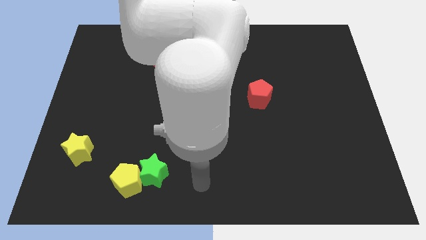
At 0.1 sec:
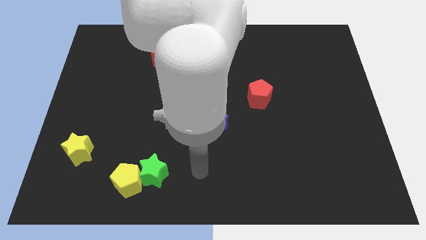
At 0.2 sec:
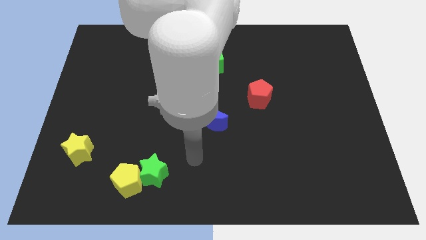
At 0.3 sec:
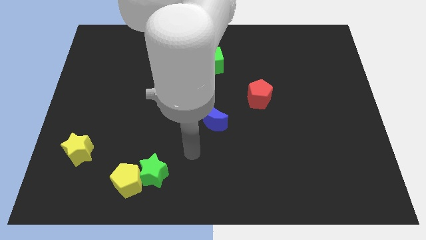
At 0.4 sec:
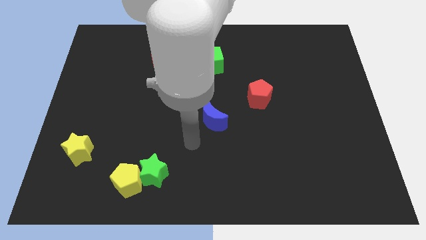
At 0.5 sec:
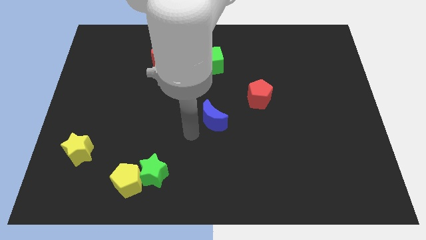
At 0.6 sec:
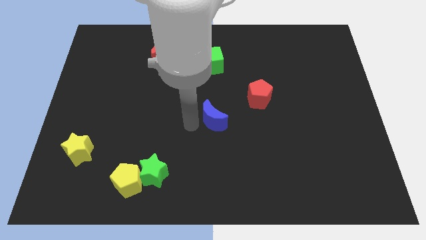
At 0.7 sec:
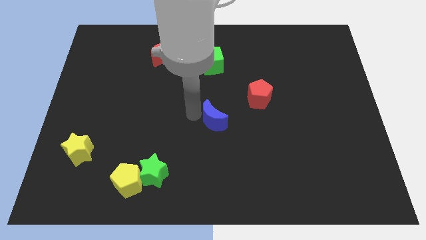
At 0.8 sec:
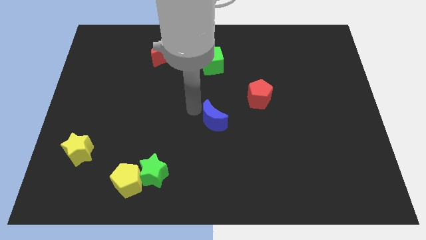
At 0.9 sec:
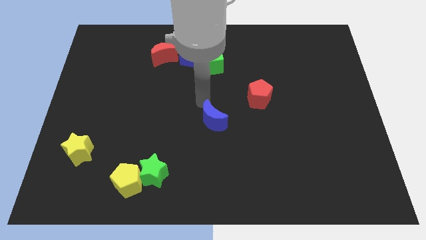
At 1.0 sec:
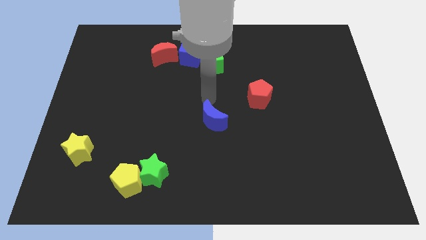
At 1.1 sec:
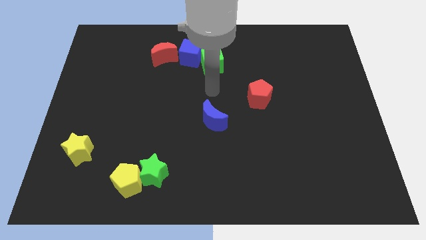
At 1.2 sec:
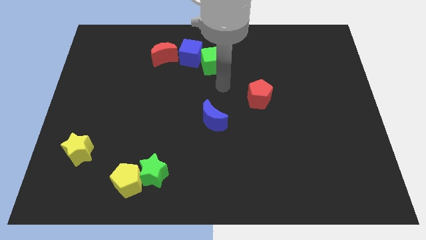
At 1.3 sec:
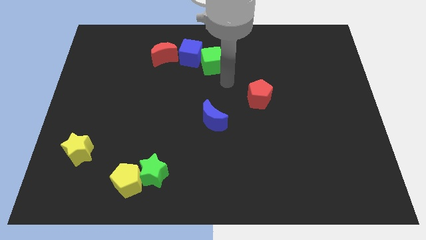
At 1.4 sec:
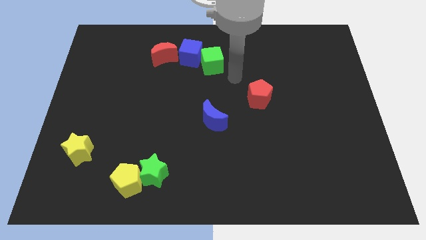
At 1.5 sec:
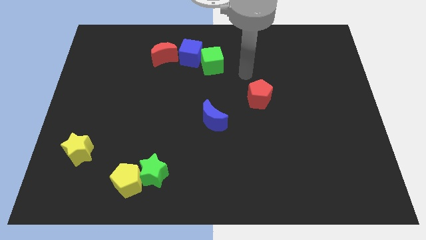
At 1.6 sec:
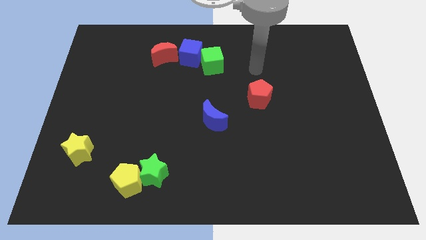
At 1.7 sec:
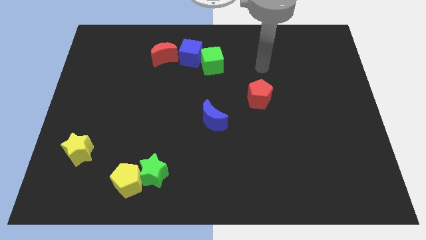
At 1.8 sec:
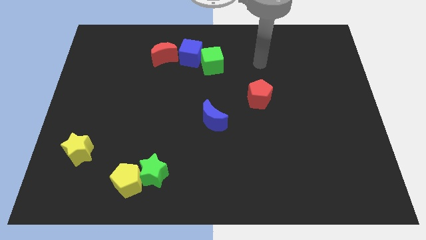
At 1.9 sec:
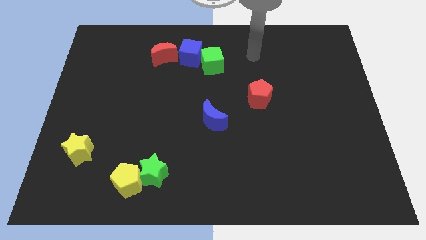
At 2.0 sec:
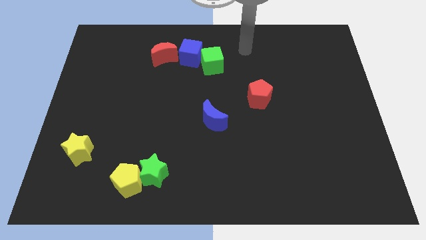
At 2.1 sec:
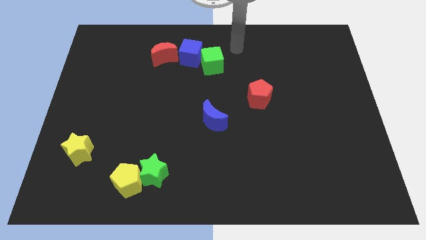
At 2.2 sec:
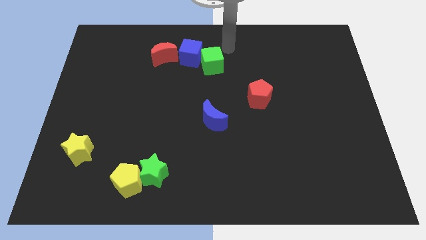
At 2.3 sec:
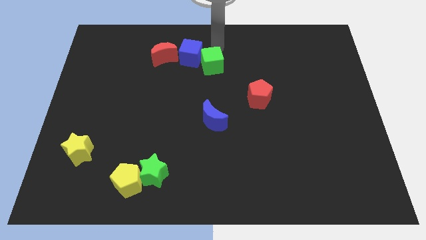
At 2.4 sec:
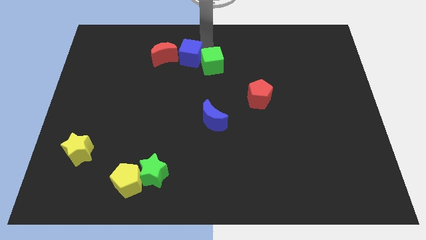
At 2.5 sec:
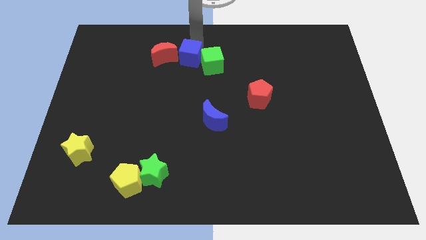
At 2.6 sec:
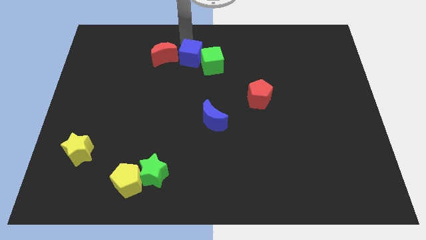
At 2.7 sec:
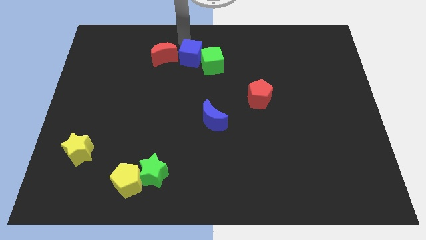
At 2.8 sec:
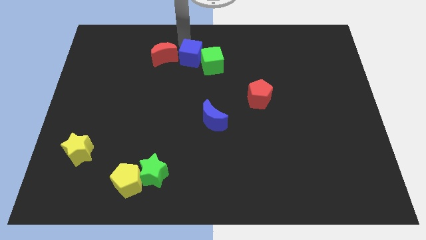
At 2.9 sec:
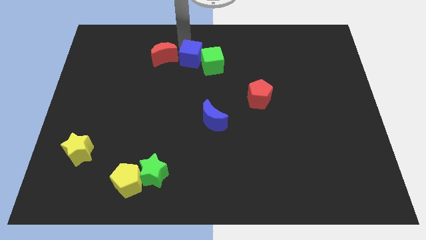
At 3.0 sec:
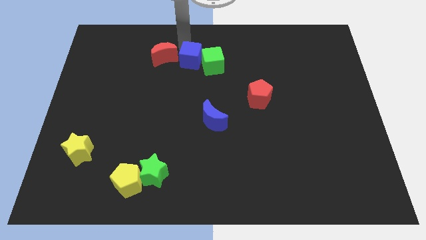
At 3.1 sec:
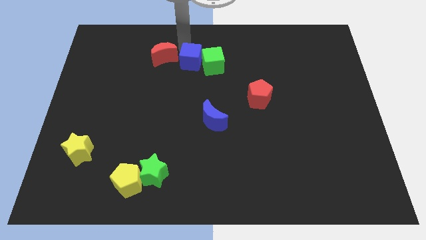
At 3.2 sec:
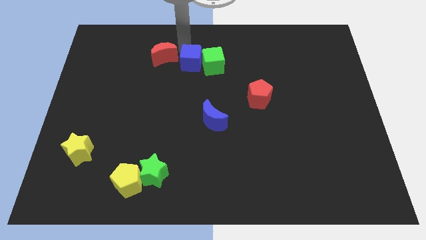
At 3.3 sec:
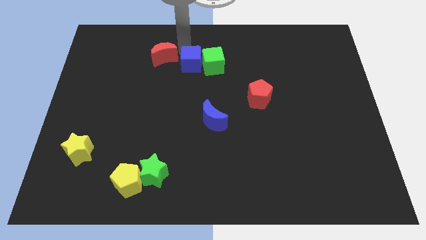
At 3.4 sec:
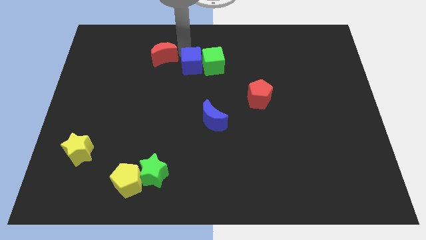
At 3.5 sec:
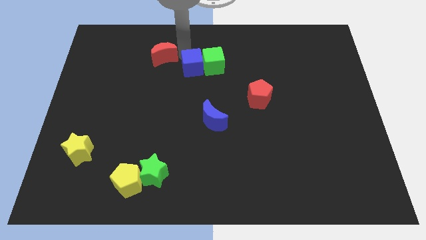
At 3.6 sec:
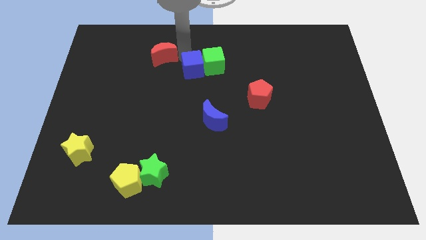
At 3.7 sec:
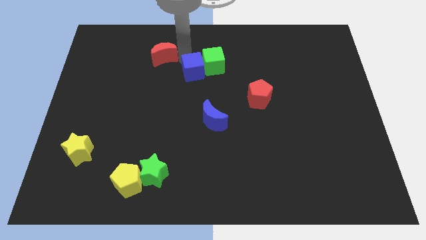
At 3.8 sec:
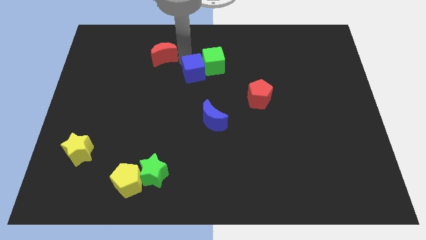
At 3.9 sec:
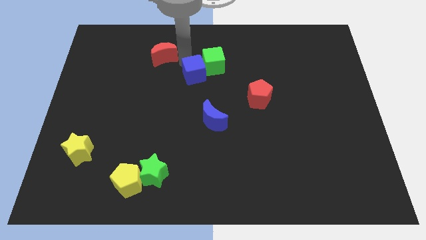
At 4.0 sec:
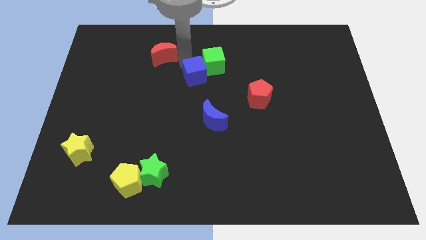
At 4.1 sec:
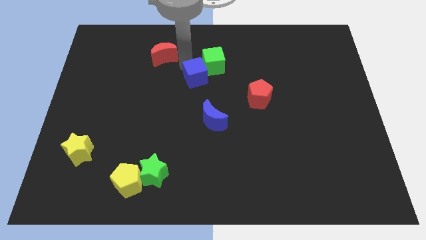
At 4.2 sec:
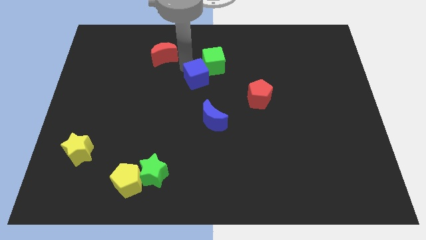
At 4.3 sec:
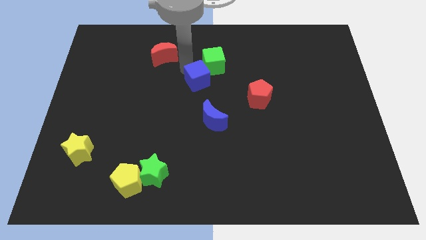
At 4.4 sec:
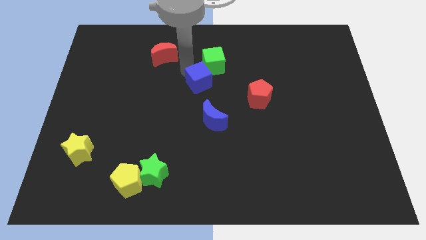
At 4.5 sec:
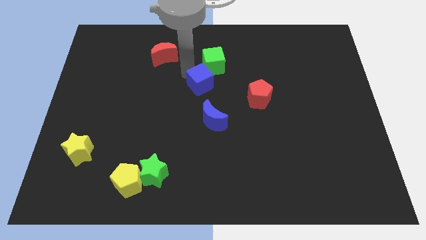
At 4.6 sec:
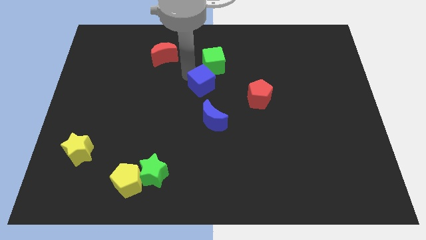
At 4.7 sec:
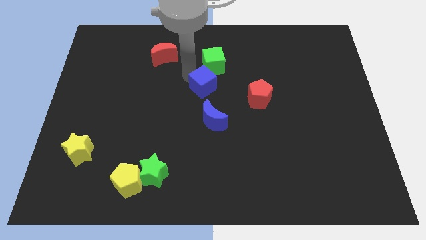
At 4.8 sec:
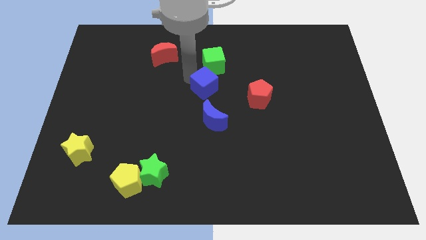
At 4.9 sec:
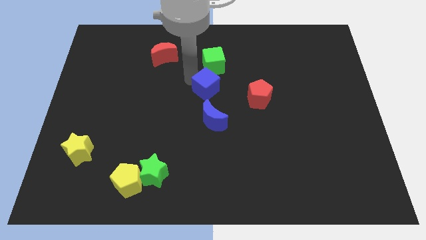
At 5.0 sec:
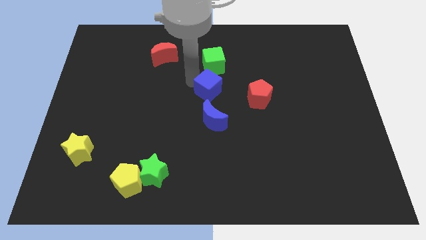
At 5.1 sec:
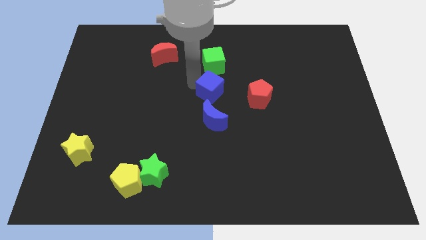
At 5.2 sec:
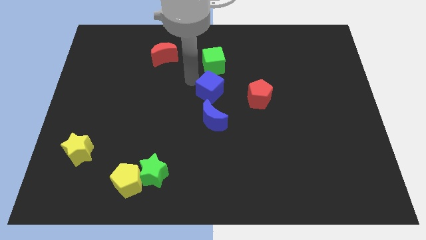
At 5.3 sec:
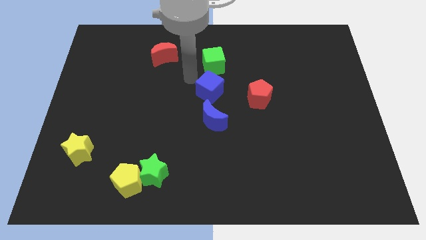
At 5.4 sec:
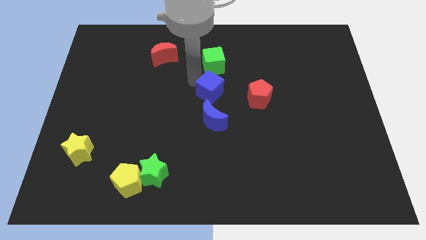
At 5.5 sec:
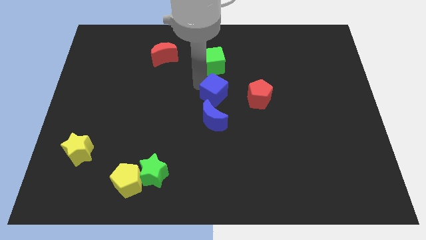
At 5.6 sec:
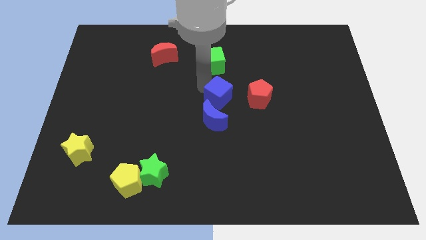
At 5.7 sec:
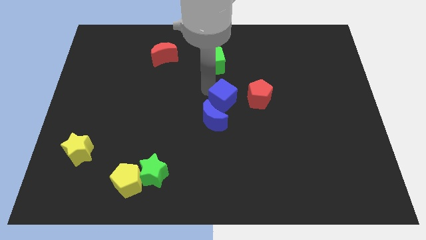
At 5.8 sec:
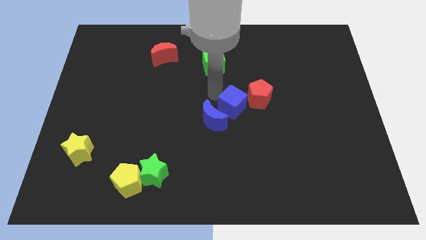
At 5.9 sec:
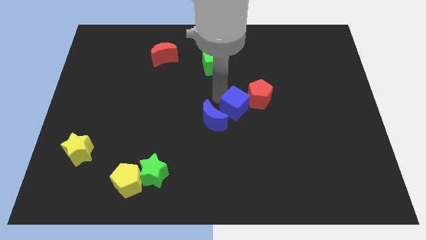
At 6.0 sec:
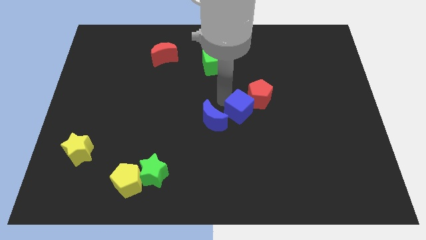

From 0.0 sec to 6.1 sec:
move the blue cube diagonally downwards and right

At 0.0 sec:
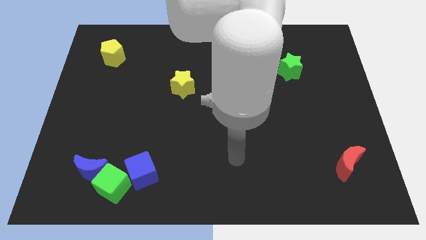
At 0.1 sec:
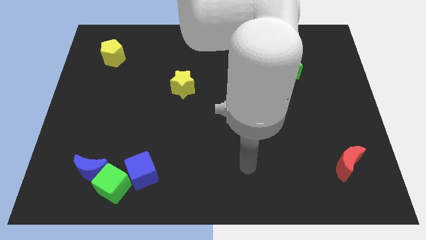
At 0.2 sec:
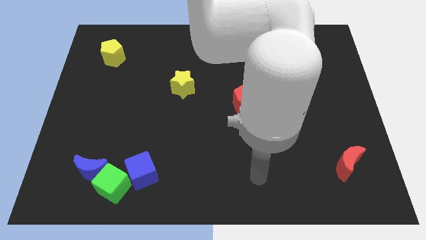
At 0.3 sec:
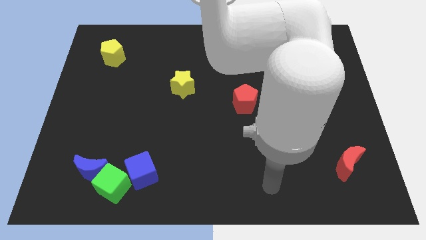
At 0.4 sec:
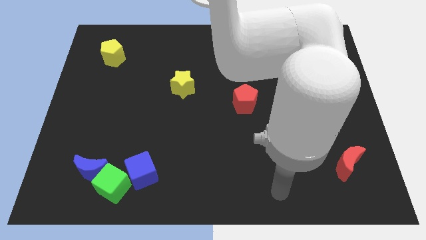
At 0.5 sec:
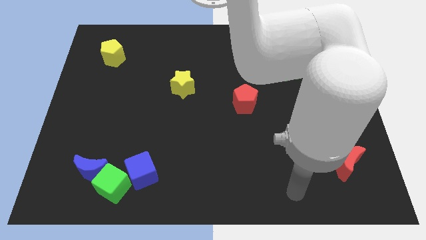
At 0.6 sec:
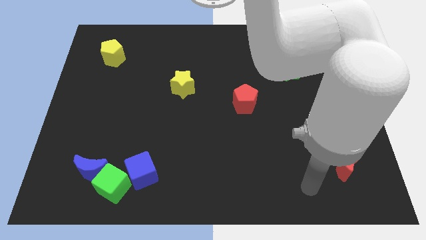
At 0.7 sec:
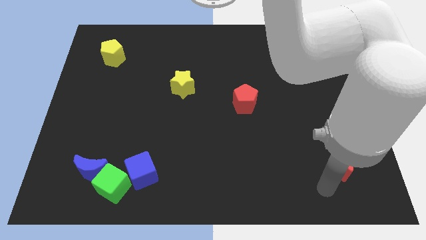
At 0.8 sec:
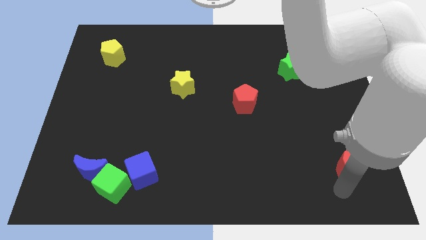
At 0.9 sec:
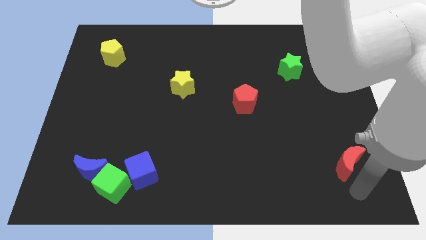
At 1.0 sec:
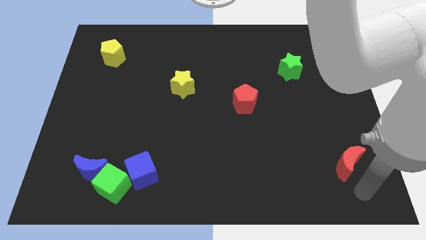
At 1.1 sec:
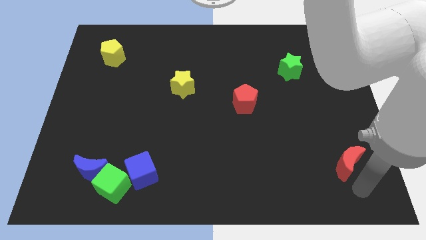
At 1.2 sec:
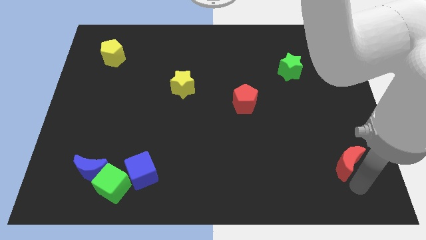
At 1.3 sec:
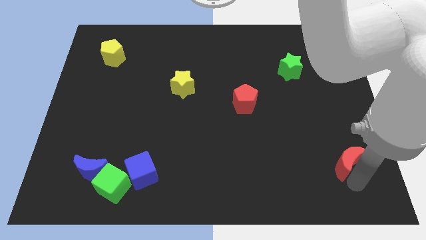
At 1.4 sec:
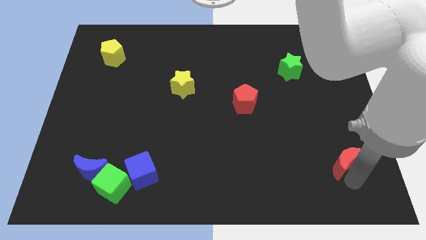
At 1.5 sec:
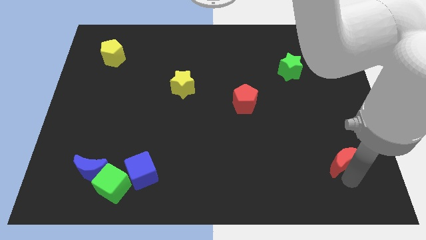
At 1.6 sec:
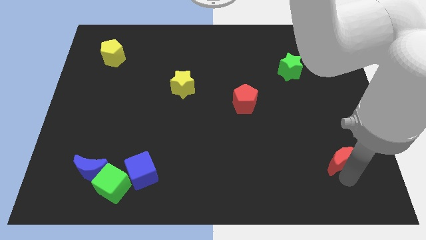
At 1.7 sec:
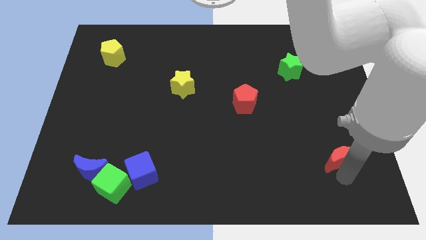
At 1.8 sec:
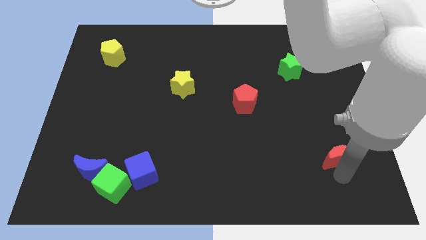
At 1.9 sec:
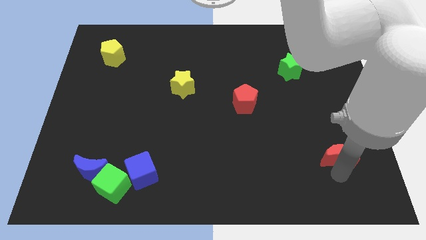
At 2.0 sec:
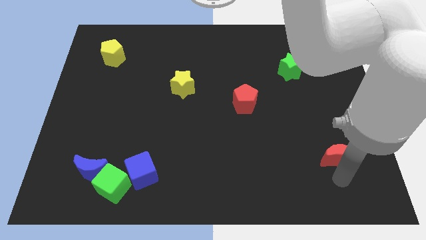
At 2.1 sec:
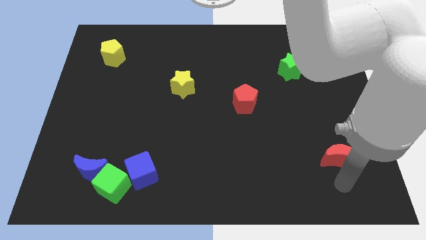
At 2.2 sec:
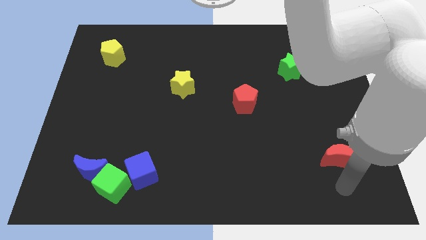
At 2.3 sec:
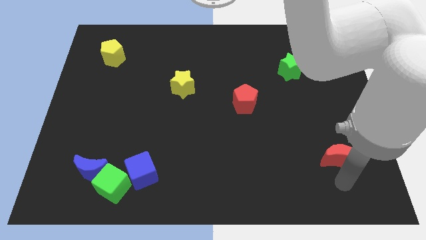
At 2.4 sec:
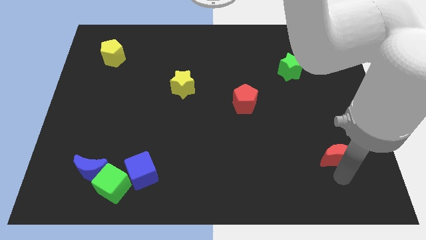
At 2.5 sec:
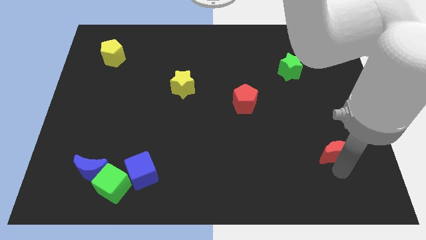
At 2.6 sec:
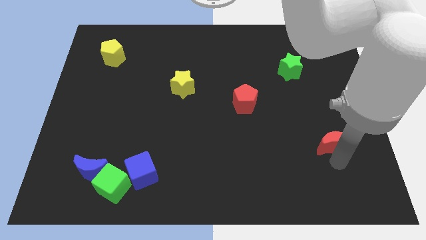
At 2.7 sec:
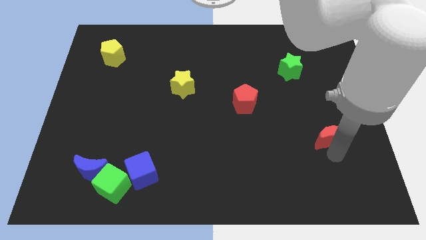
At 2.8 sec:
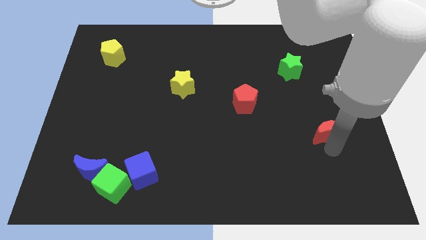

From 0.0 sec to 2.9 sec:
slide the red moon a bit up
